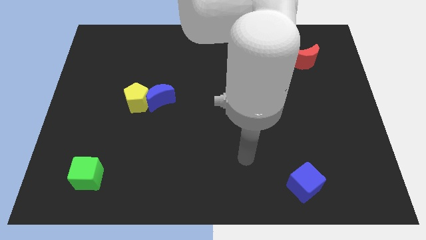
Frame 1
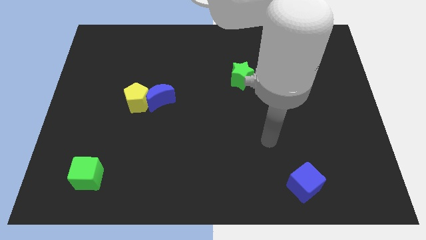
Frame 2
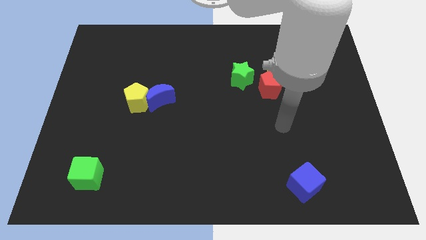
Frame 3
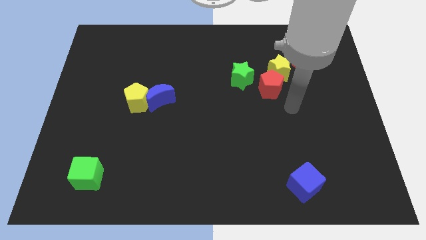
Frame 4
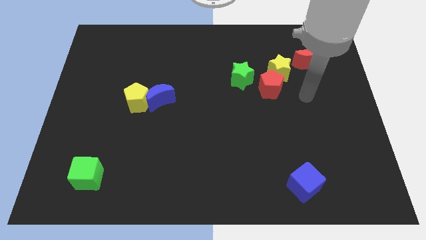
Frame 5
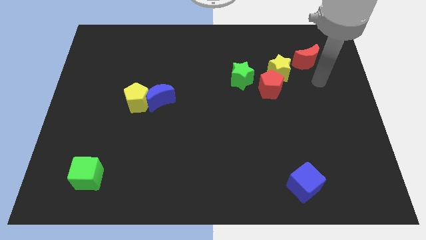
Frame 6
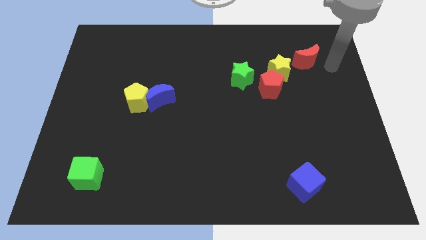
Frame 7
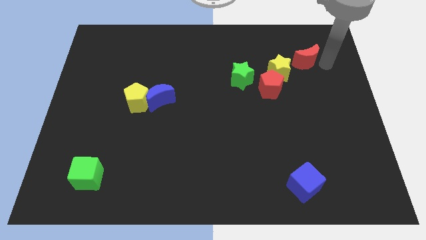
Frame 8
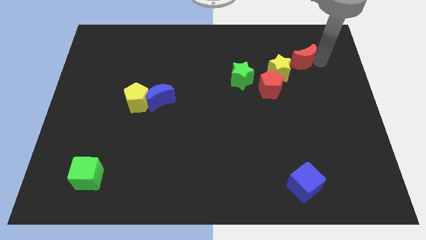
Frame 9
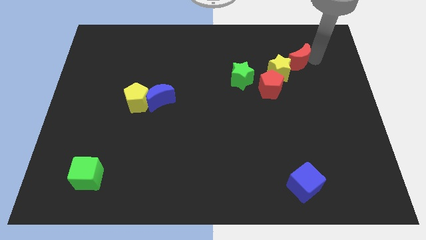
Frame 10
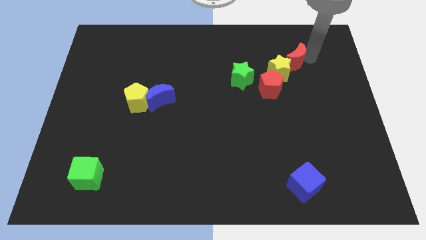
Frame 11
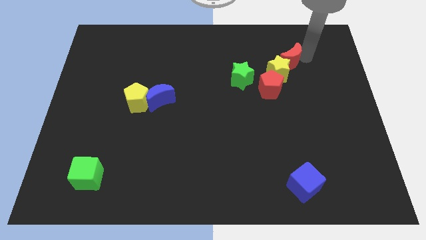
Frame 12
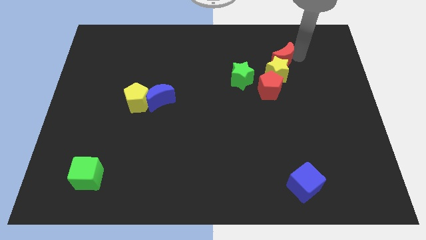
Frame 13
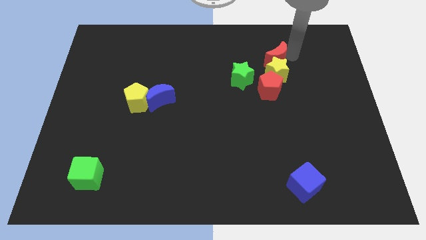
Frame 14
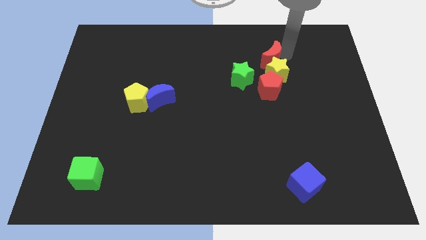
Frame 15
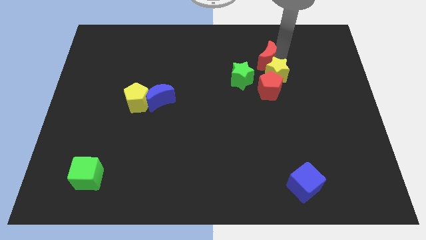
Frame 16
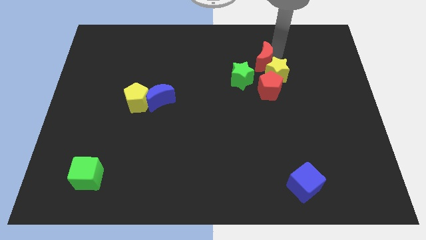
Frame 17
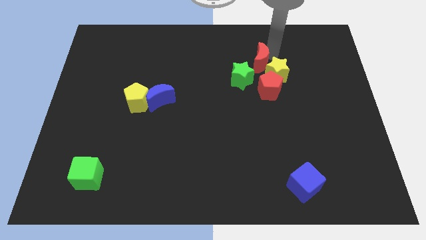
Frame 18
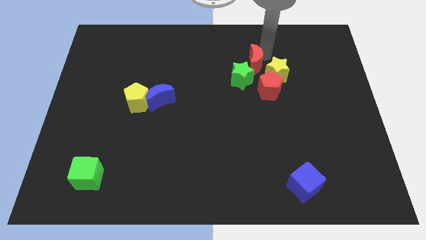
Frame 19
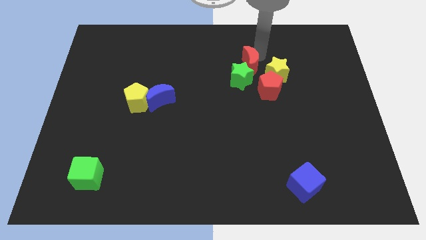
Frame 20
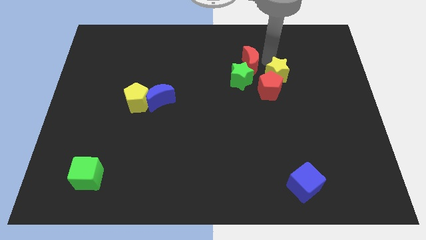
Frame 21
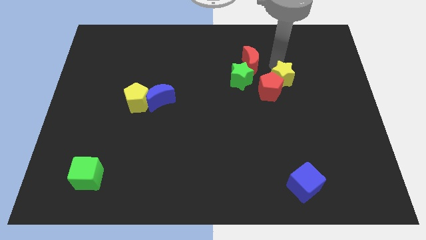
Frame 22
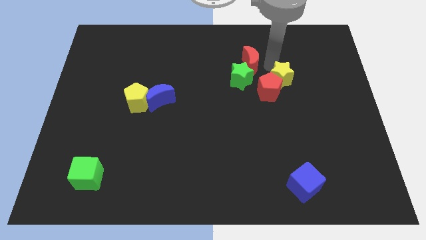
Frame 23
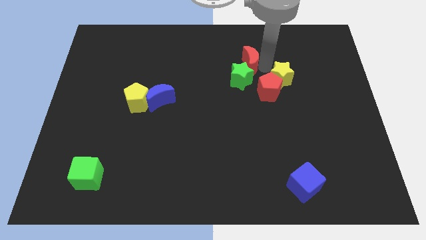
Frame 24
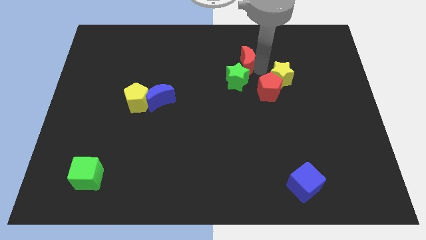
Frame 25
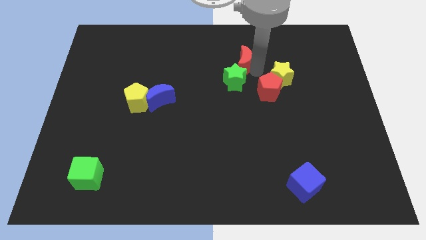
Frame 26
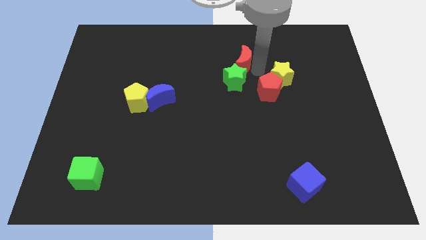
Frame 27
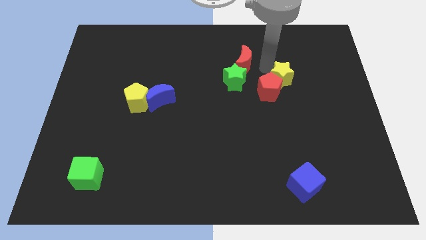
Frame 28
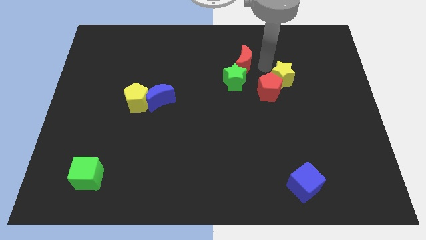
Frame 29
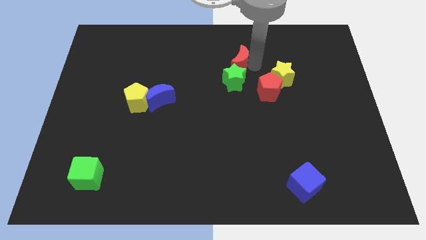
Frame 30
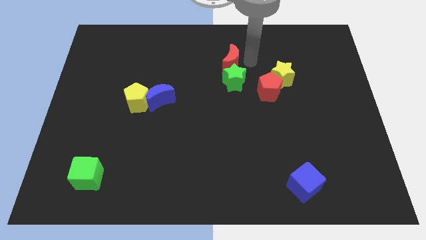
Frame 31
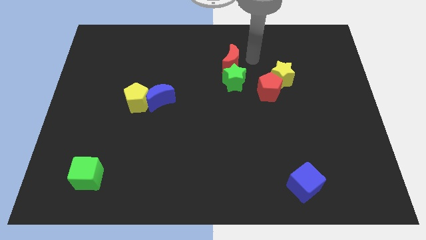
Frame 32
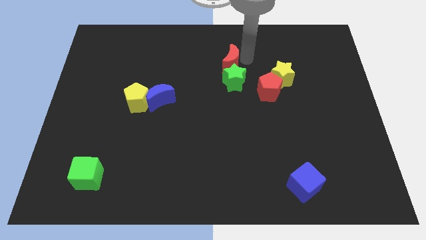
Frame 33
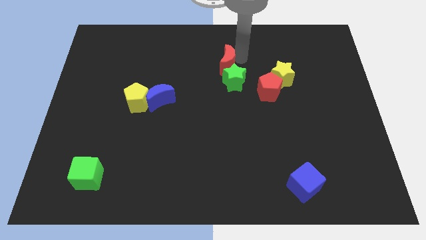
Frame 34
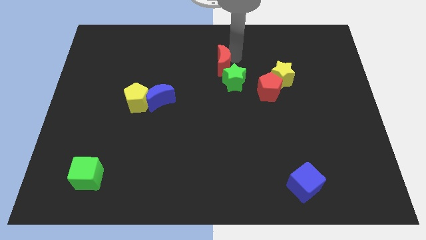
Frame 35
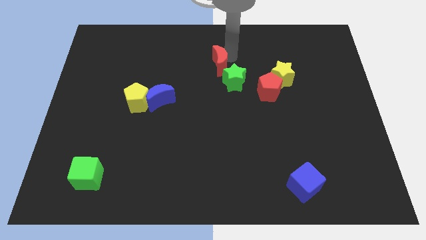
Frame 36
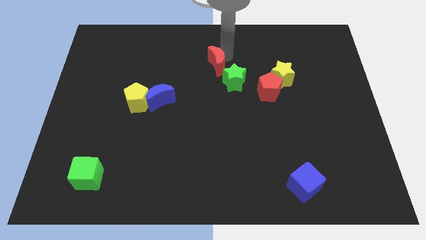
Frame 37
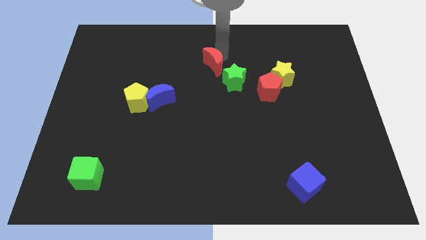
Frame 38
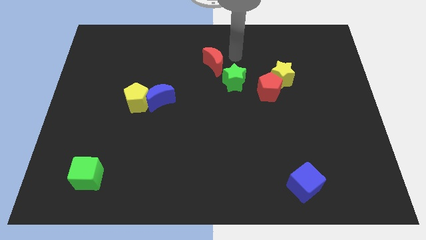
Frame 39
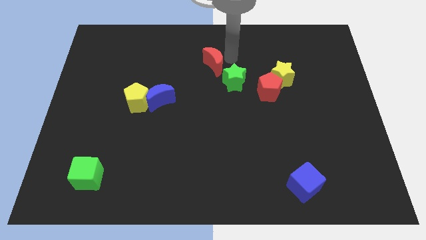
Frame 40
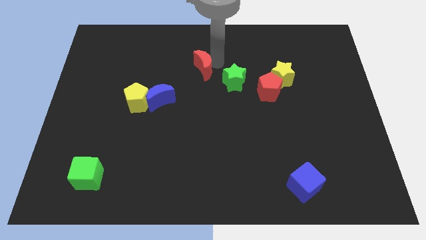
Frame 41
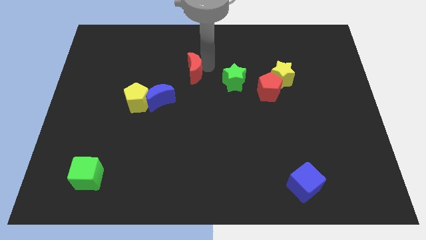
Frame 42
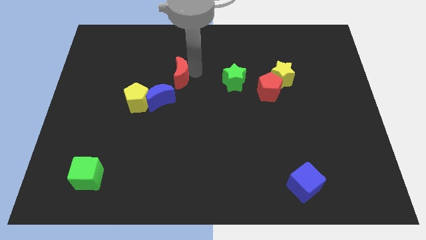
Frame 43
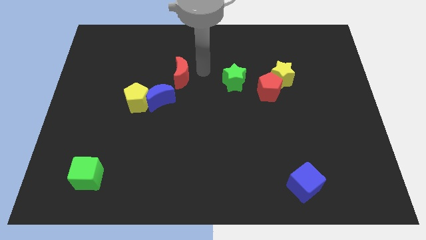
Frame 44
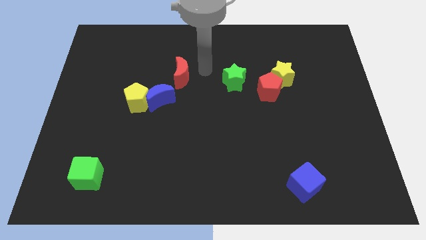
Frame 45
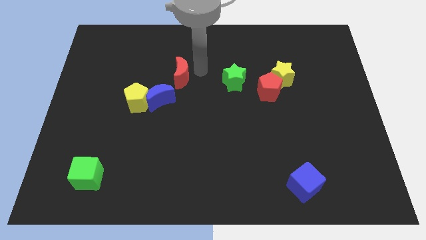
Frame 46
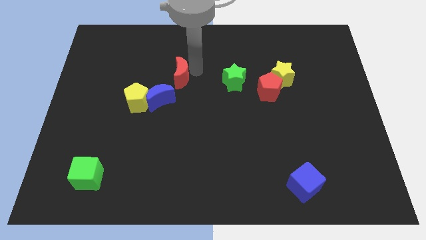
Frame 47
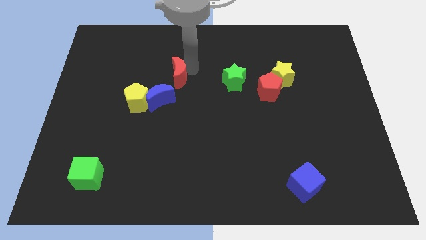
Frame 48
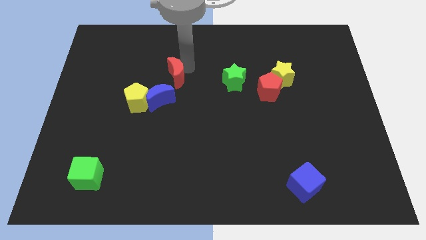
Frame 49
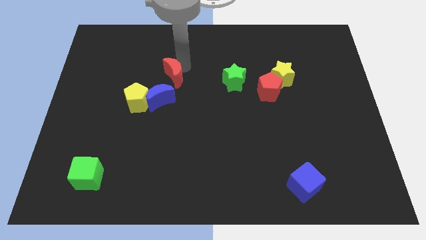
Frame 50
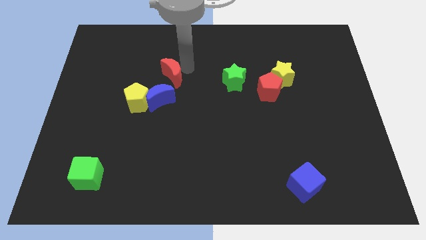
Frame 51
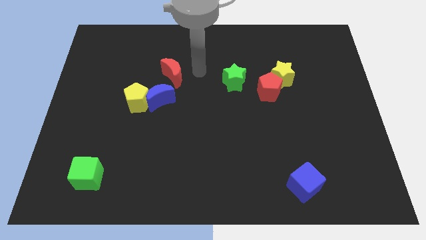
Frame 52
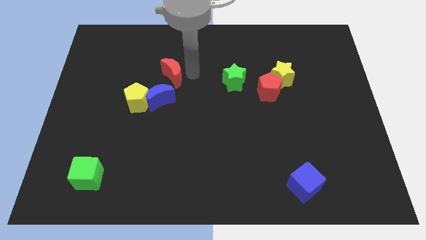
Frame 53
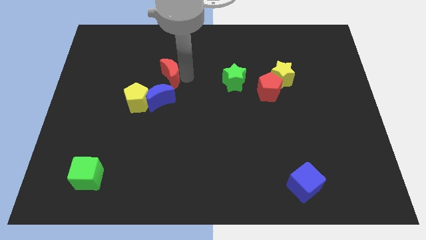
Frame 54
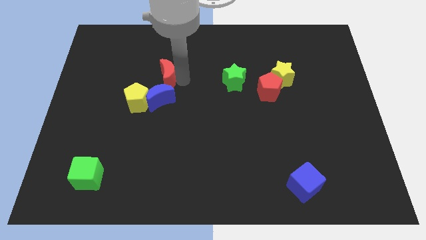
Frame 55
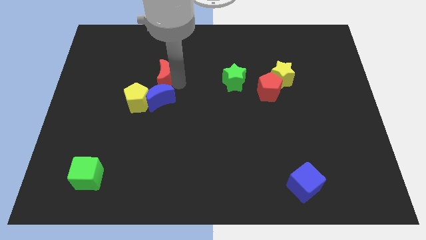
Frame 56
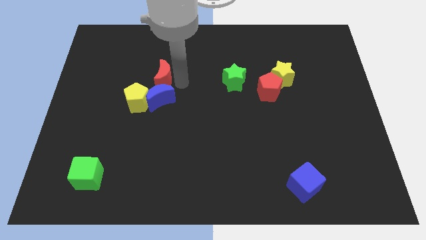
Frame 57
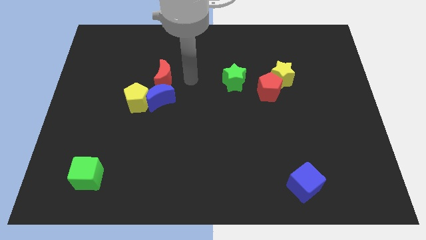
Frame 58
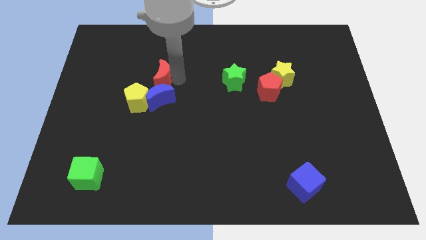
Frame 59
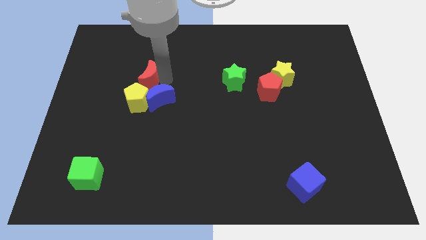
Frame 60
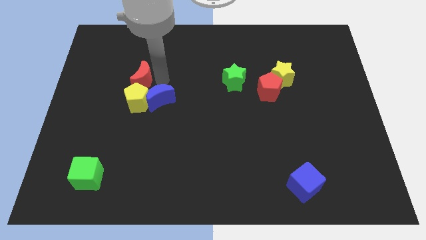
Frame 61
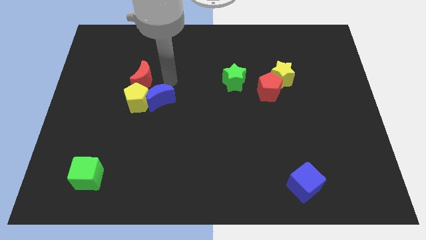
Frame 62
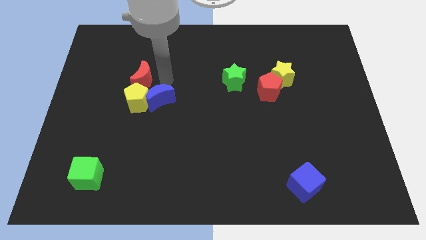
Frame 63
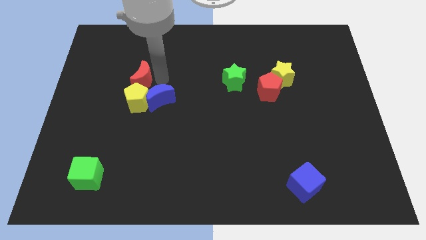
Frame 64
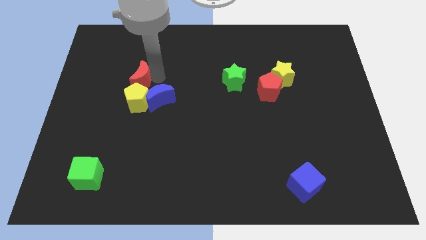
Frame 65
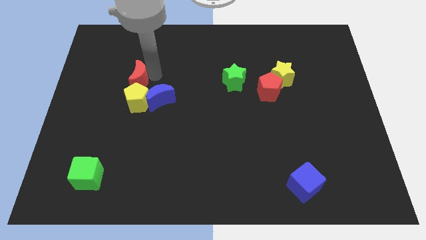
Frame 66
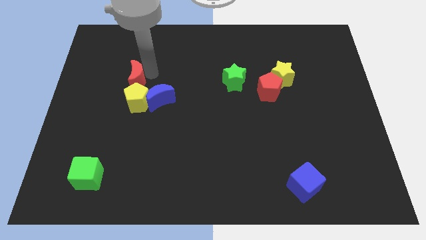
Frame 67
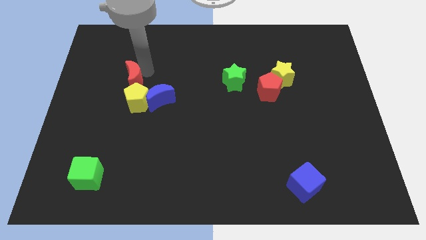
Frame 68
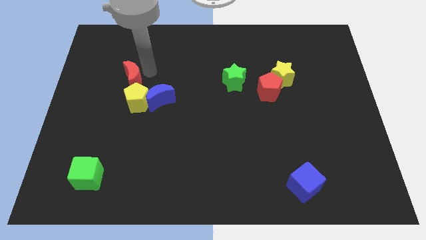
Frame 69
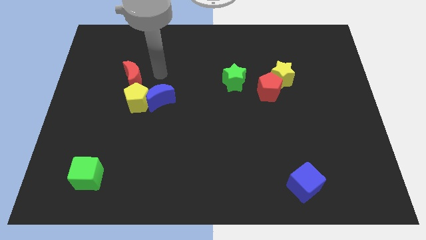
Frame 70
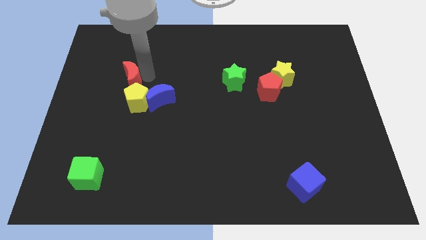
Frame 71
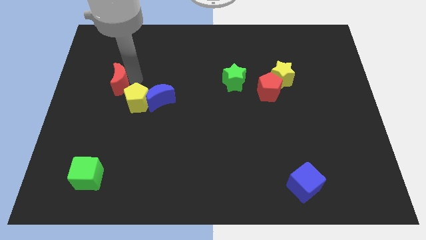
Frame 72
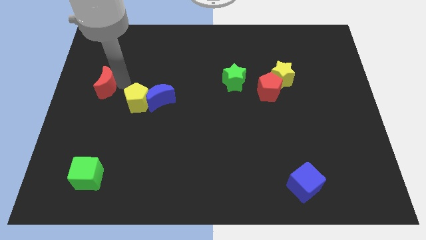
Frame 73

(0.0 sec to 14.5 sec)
push the red moon to the center left
